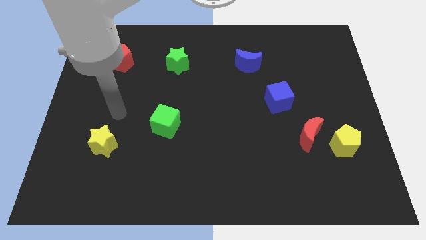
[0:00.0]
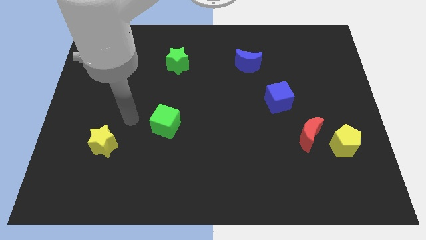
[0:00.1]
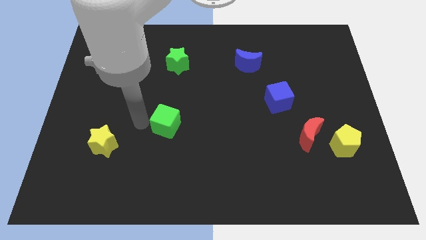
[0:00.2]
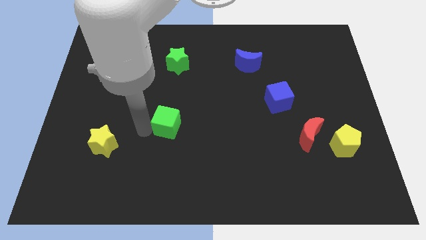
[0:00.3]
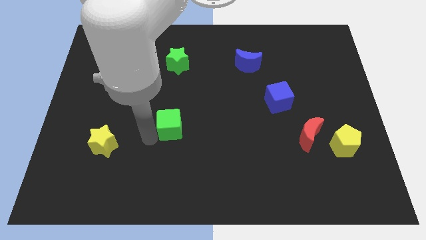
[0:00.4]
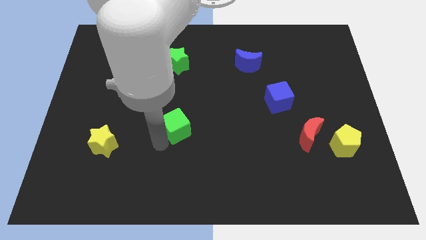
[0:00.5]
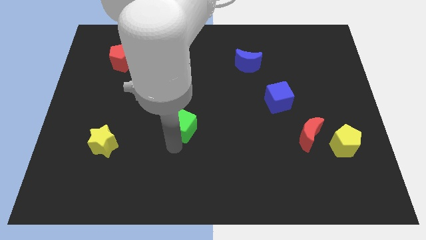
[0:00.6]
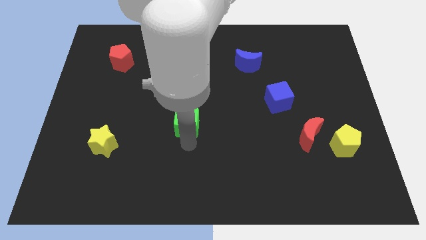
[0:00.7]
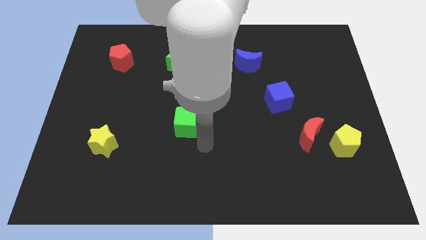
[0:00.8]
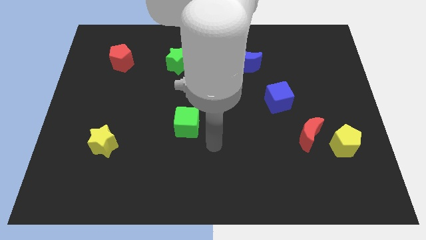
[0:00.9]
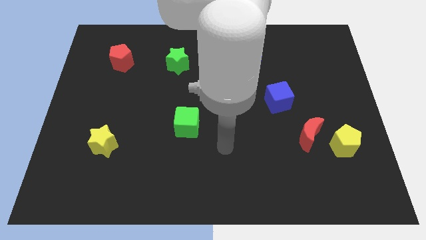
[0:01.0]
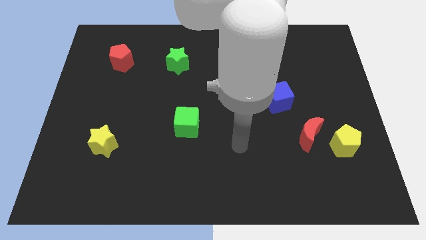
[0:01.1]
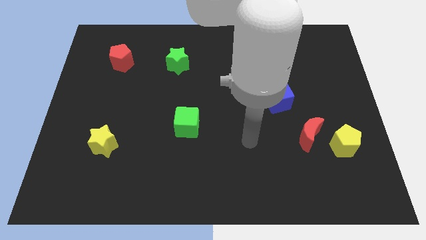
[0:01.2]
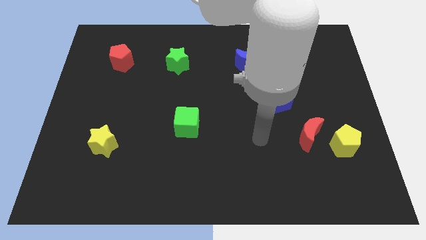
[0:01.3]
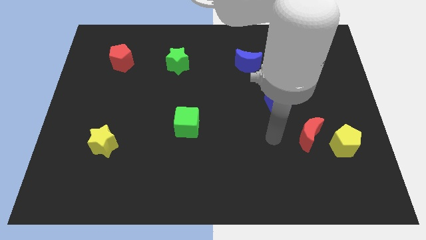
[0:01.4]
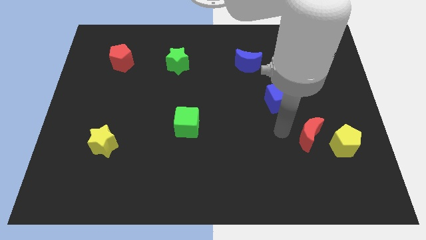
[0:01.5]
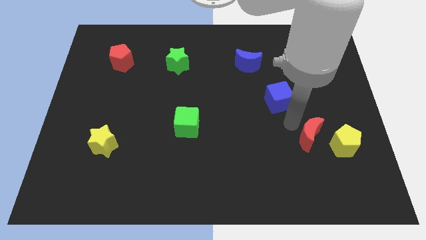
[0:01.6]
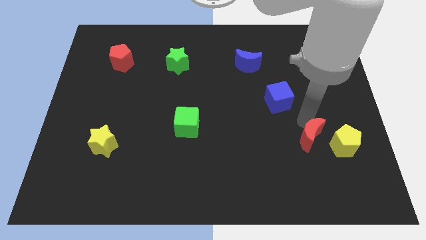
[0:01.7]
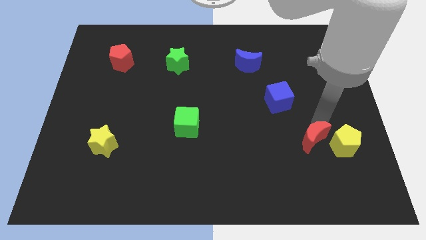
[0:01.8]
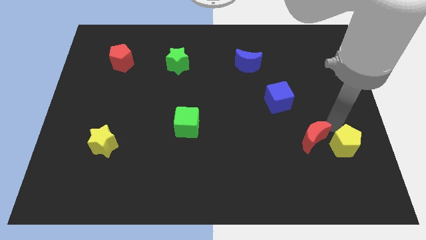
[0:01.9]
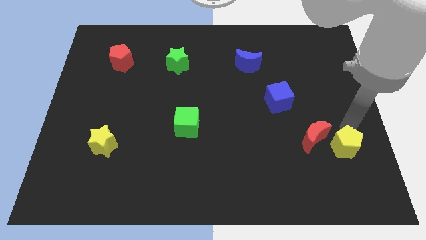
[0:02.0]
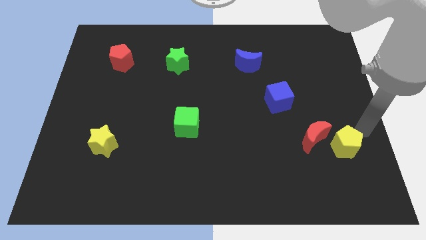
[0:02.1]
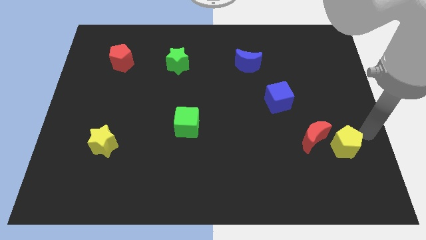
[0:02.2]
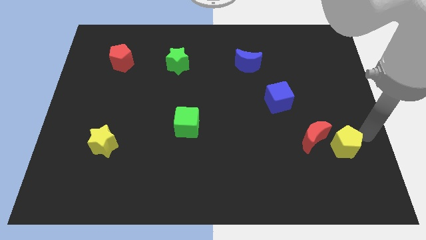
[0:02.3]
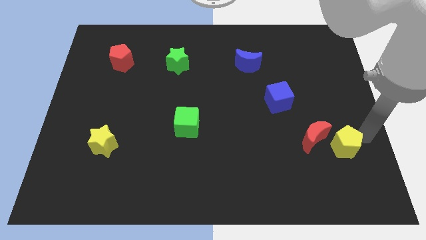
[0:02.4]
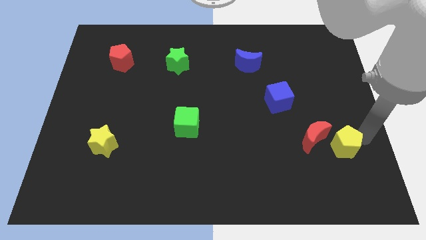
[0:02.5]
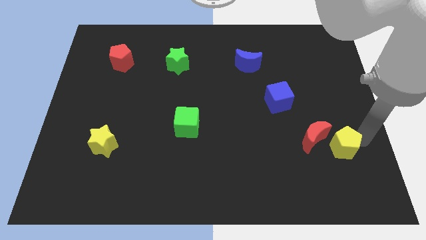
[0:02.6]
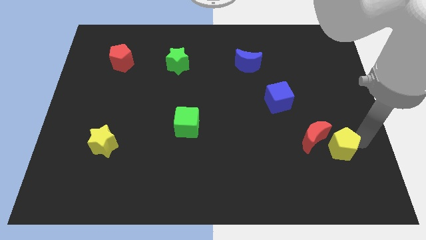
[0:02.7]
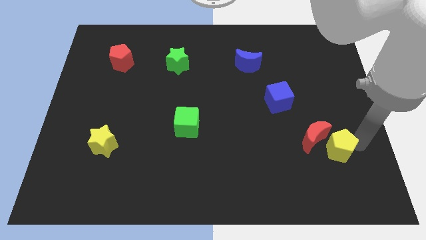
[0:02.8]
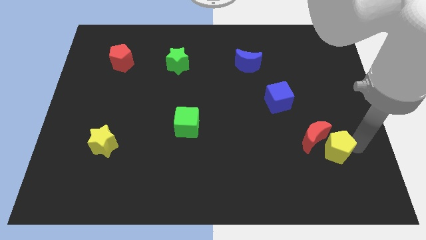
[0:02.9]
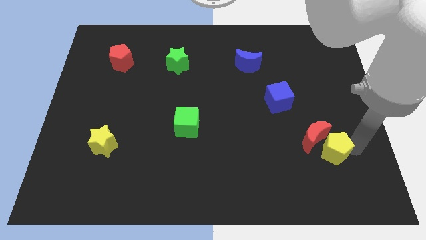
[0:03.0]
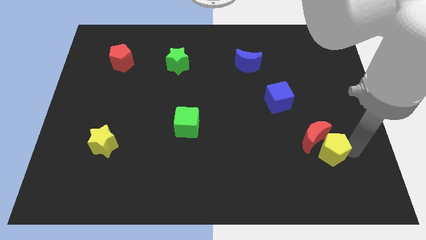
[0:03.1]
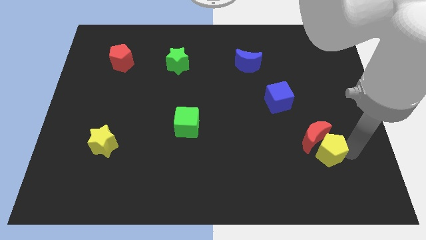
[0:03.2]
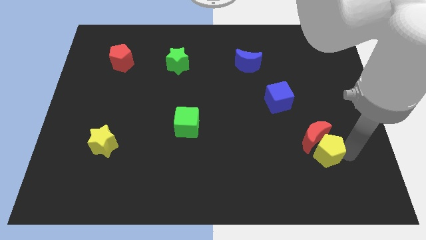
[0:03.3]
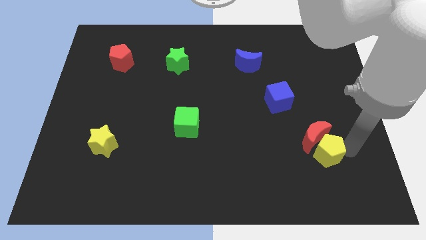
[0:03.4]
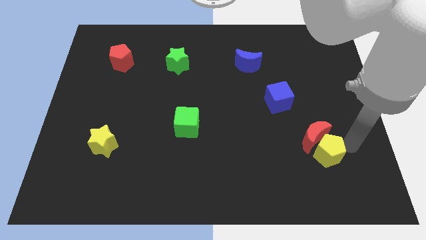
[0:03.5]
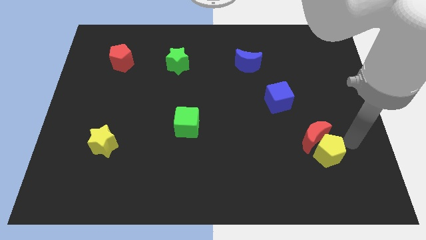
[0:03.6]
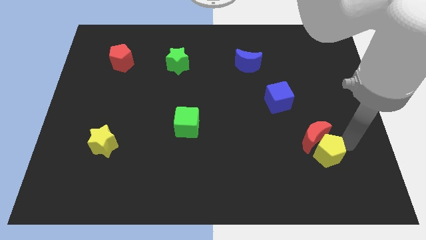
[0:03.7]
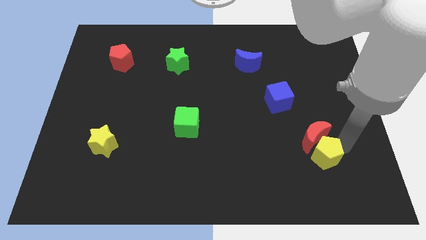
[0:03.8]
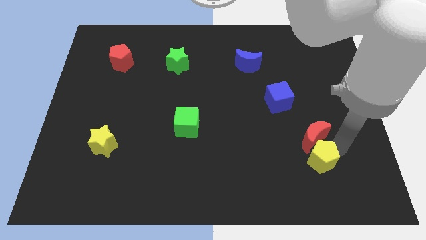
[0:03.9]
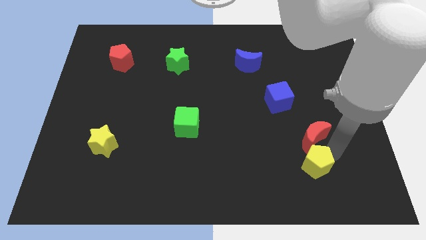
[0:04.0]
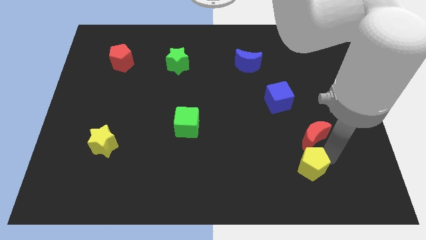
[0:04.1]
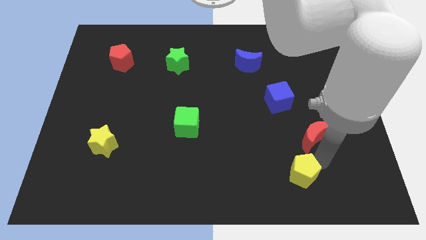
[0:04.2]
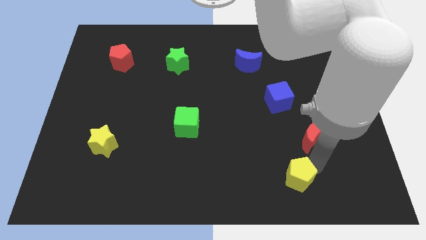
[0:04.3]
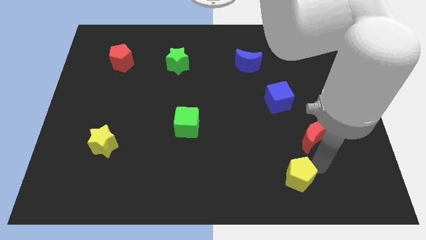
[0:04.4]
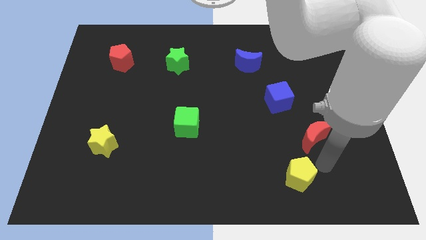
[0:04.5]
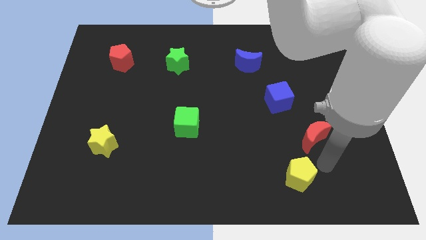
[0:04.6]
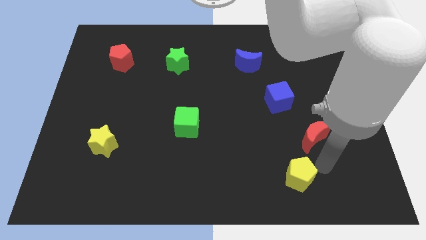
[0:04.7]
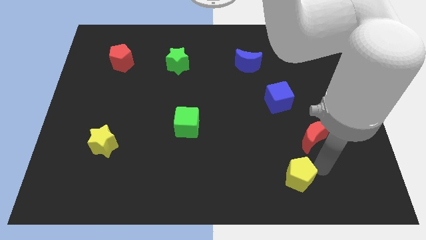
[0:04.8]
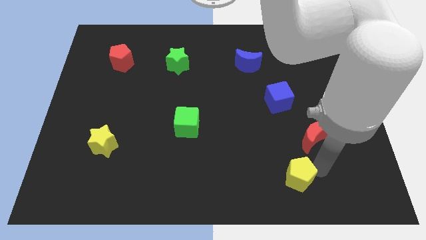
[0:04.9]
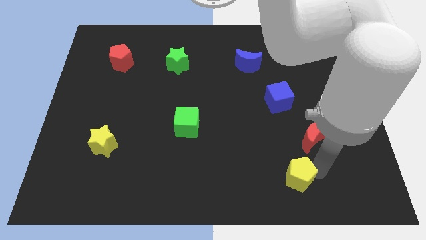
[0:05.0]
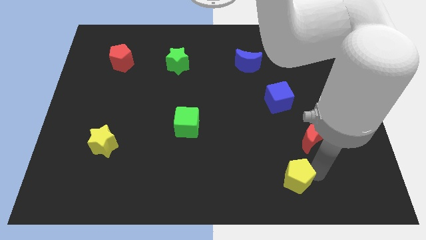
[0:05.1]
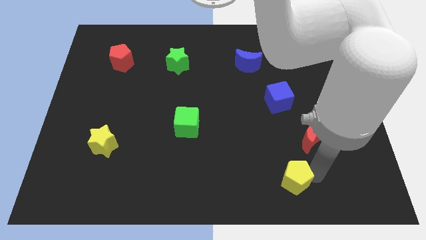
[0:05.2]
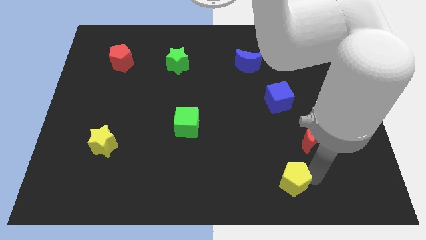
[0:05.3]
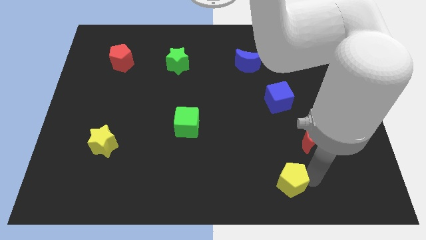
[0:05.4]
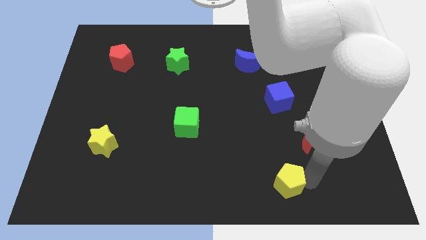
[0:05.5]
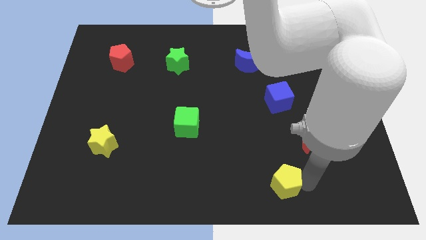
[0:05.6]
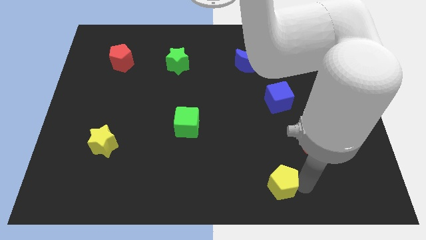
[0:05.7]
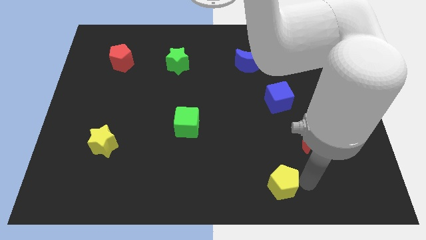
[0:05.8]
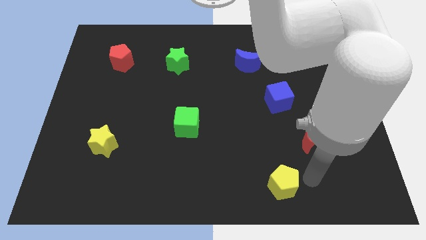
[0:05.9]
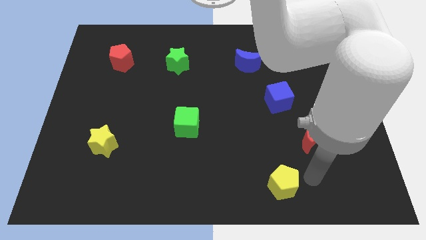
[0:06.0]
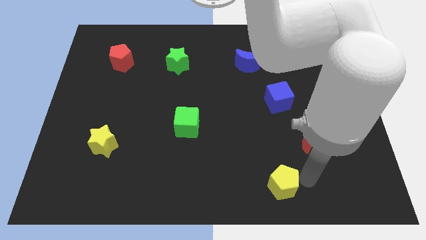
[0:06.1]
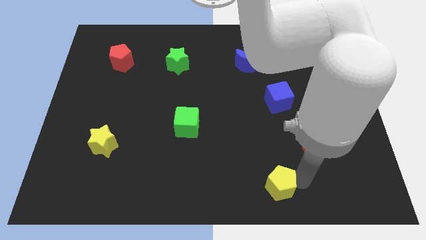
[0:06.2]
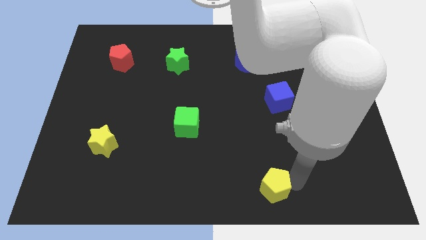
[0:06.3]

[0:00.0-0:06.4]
slide the yellow pentagon to the bottom side
